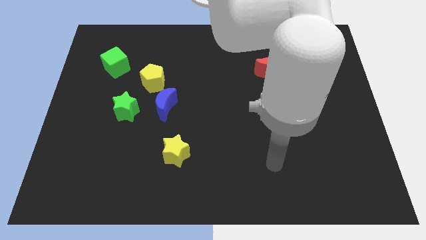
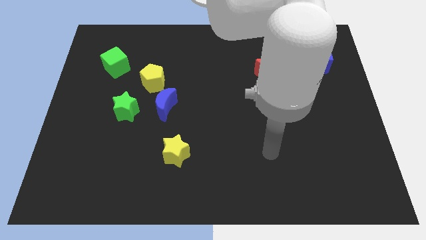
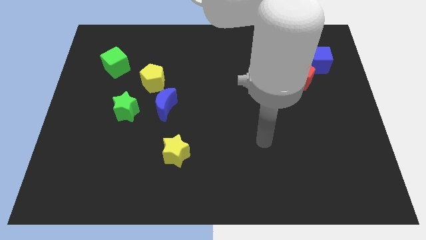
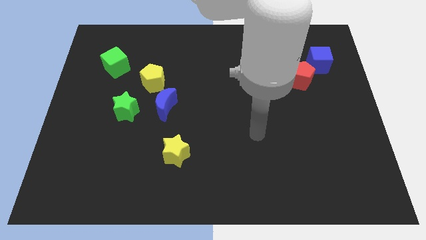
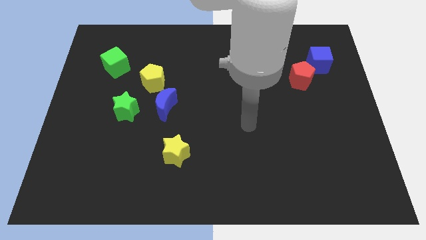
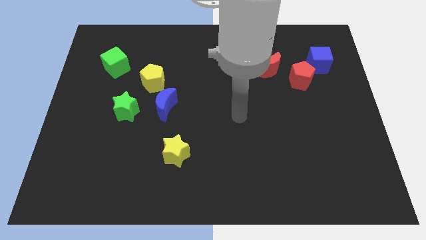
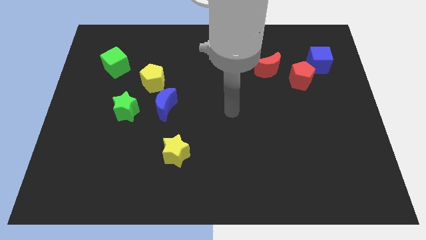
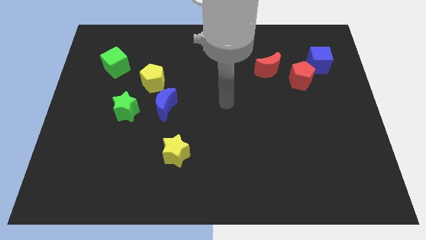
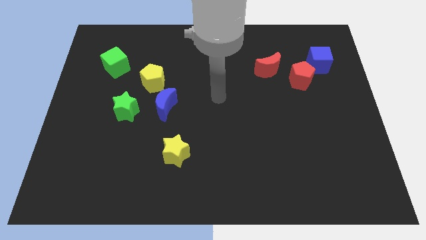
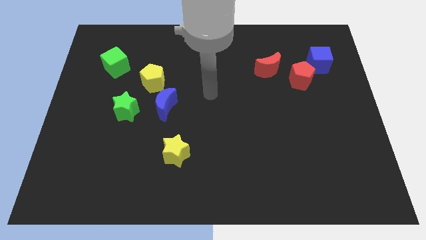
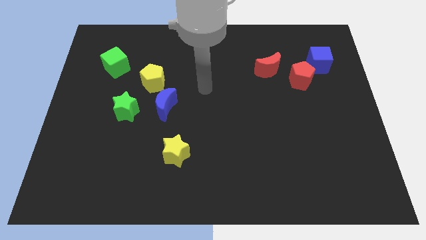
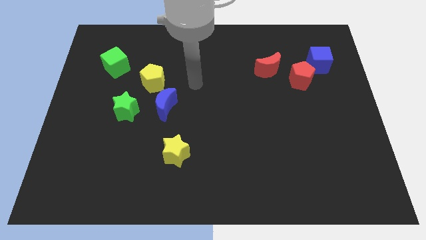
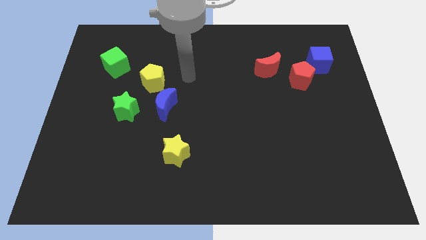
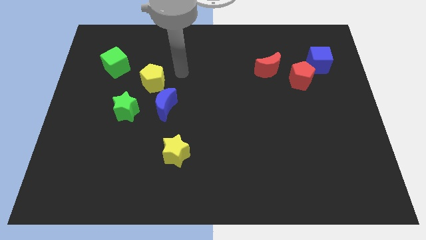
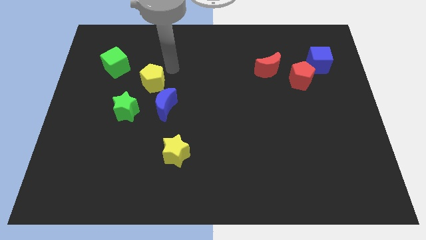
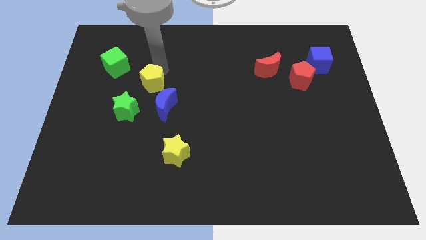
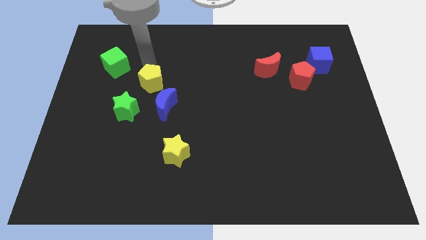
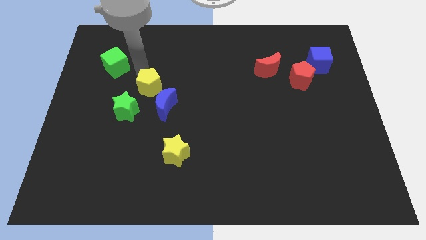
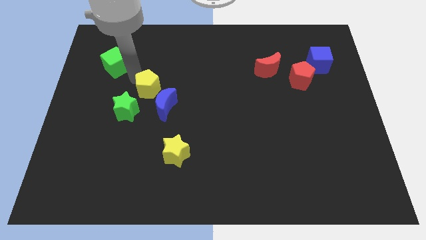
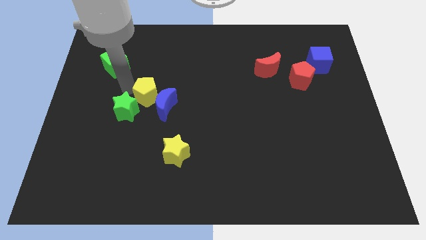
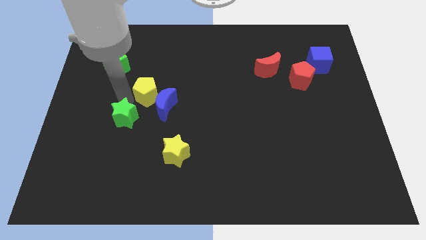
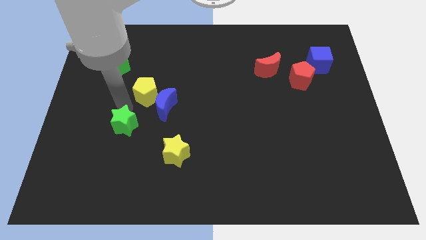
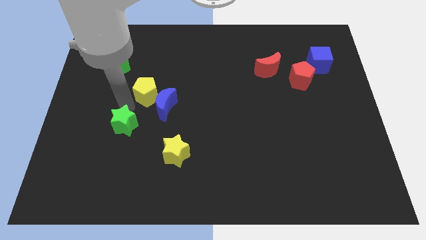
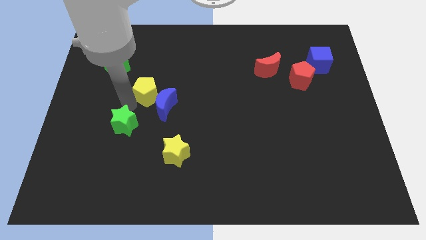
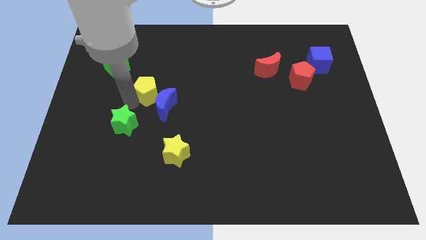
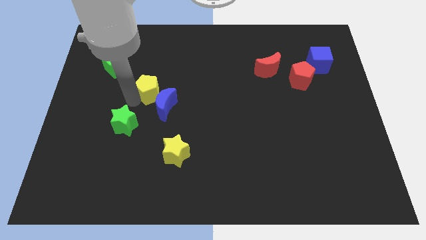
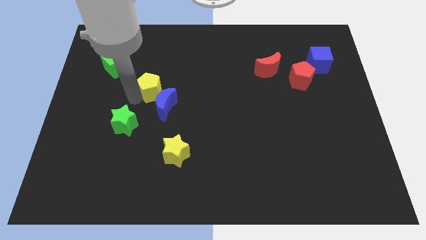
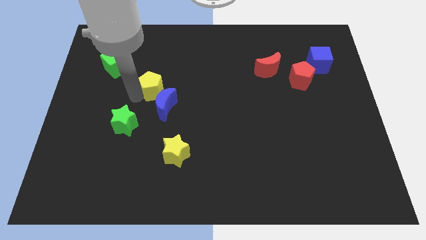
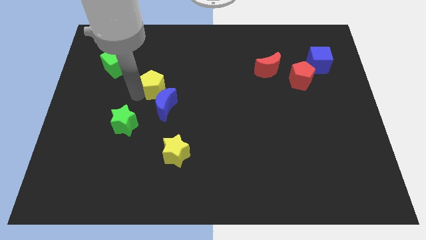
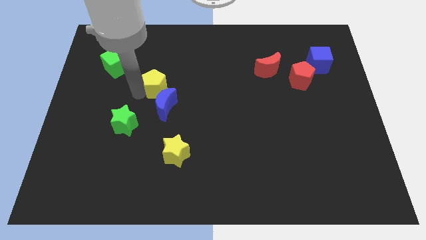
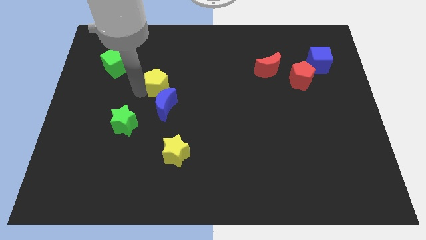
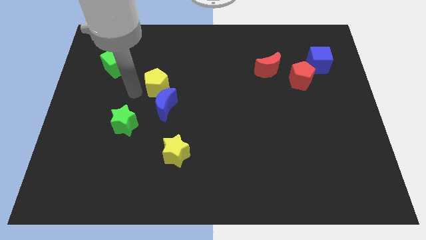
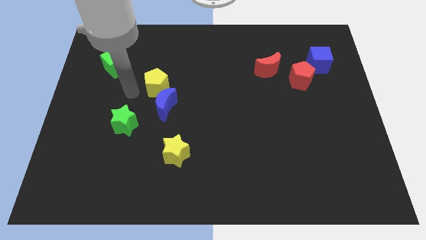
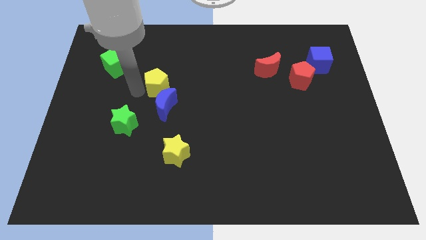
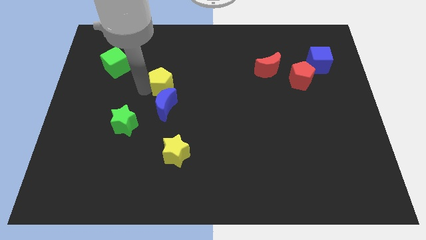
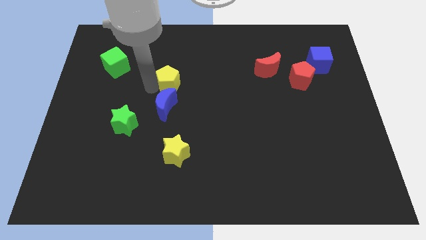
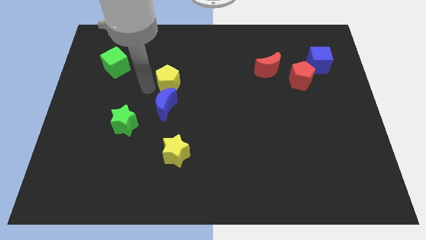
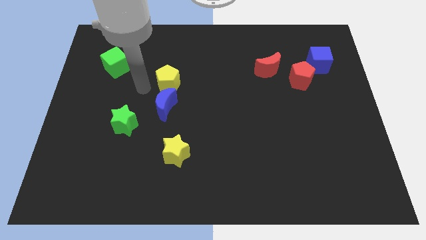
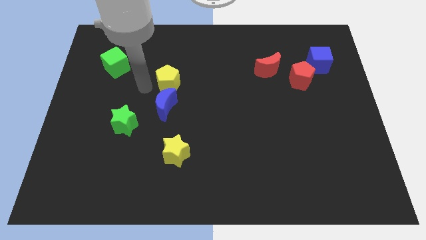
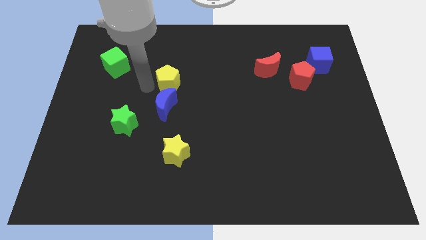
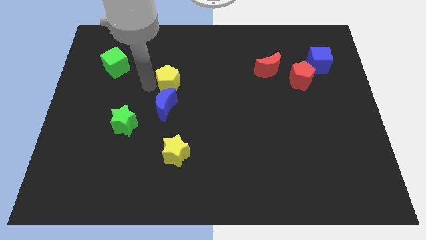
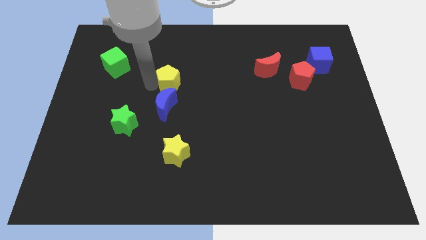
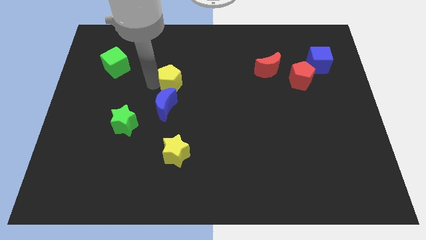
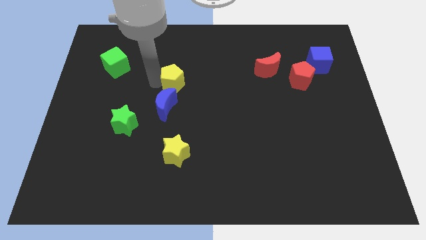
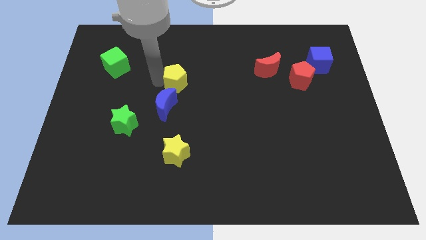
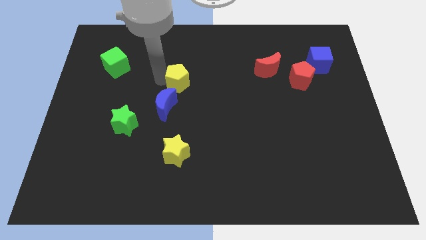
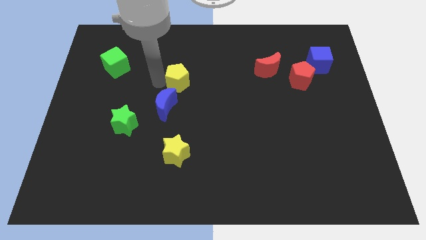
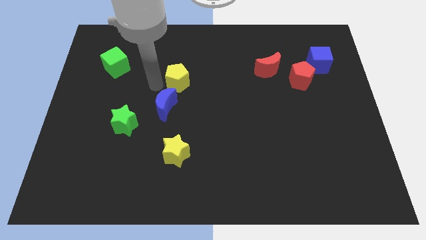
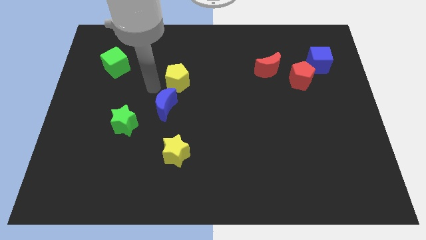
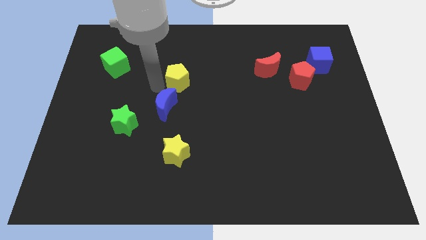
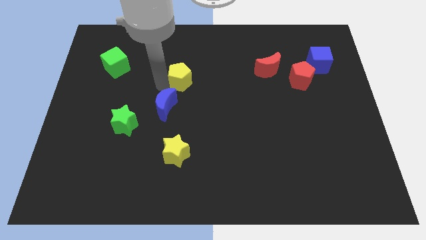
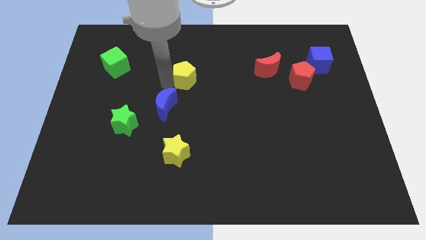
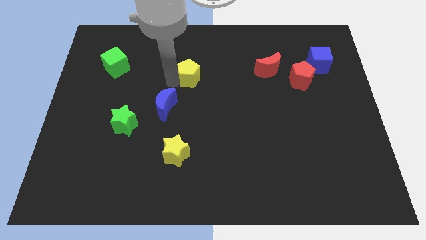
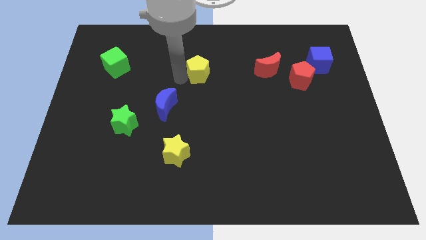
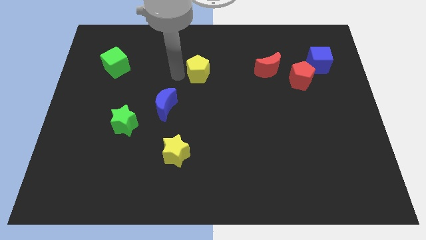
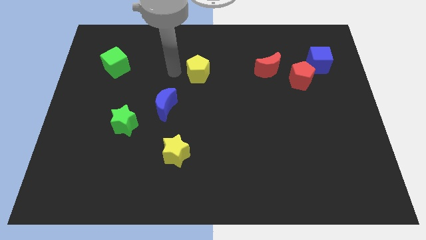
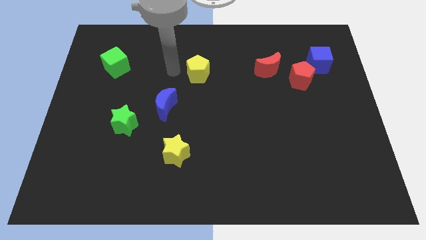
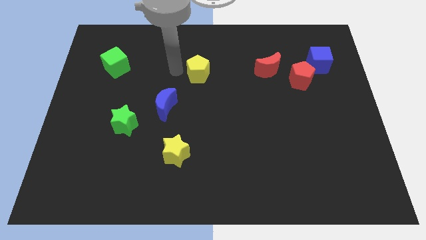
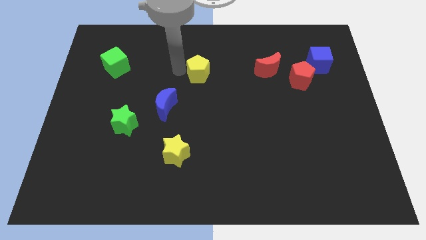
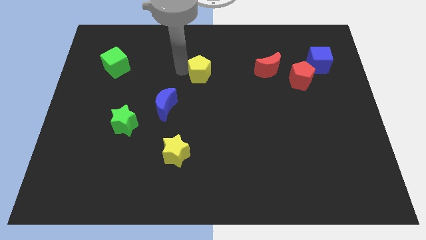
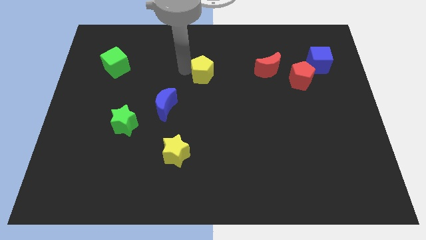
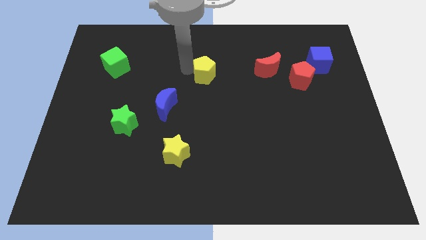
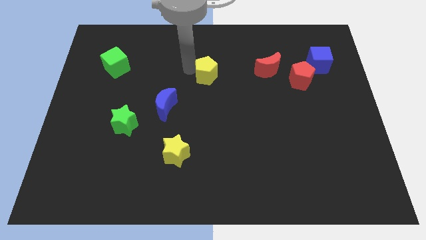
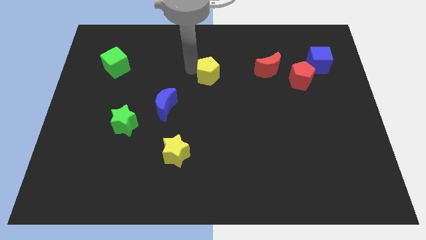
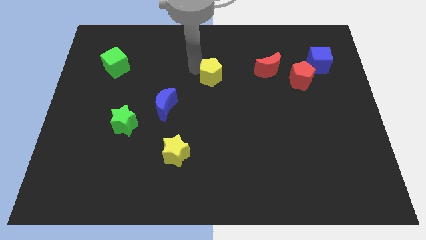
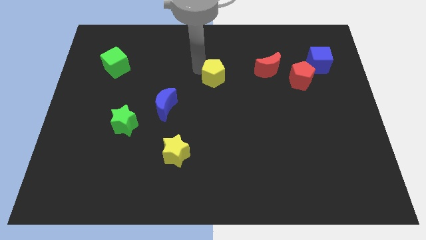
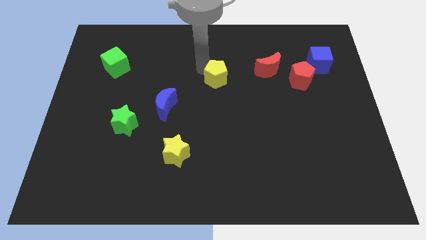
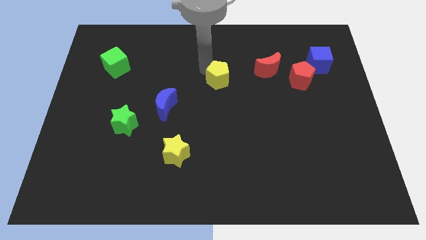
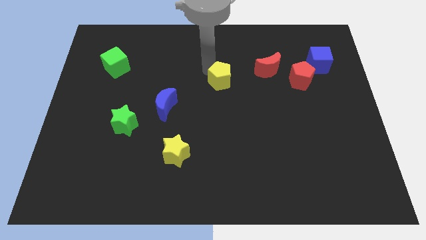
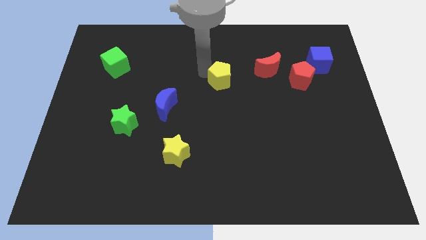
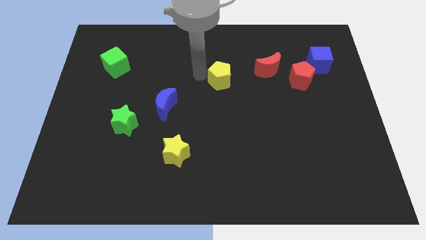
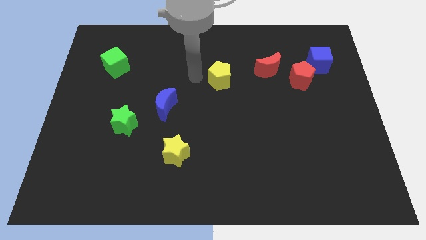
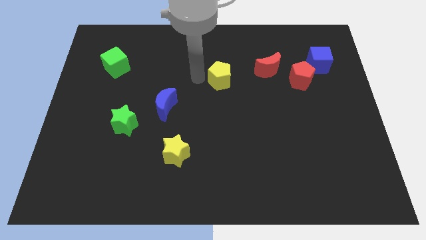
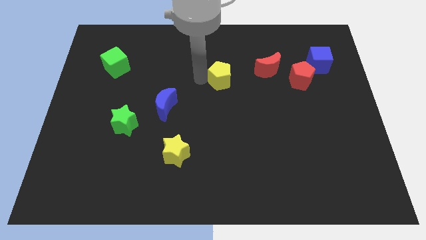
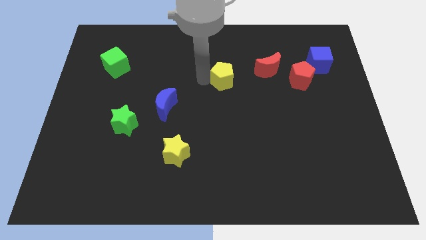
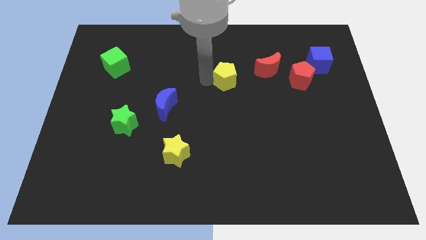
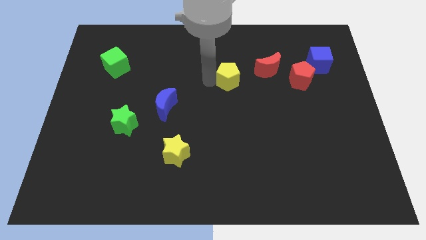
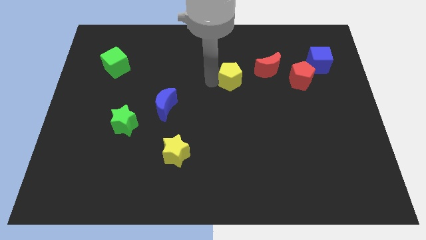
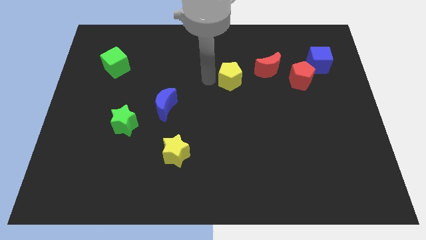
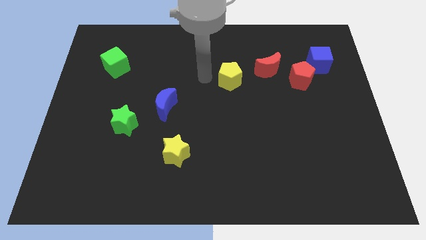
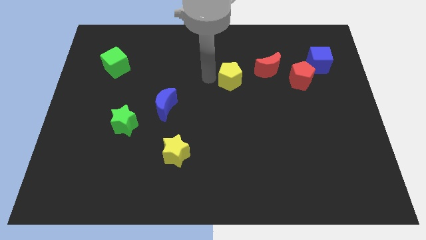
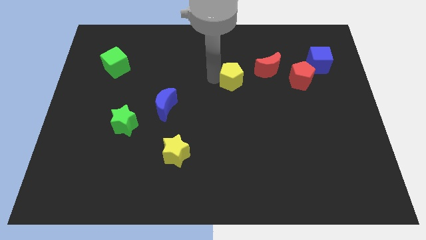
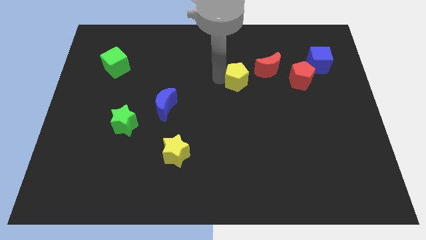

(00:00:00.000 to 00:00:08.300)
slide the yellow pentagon right
